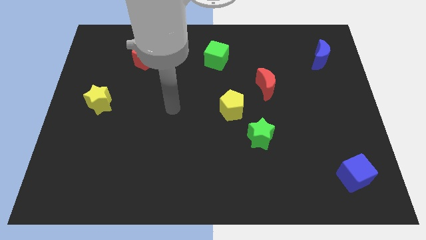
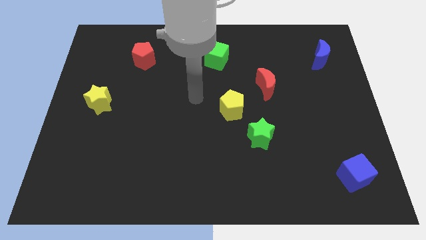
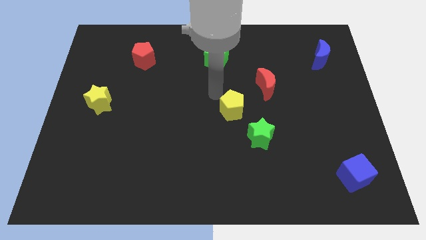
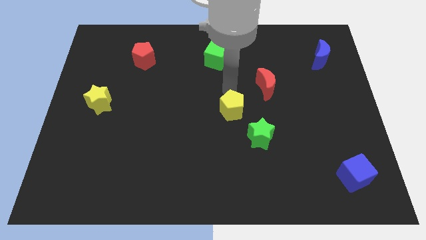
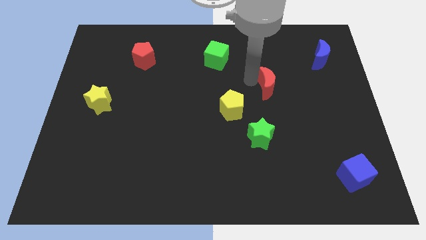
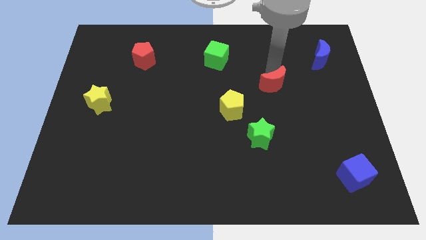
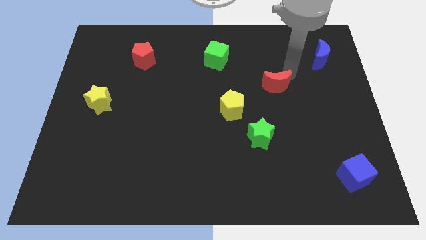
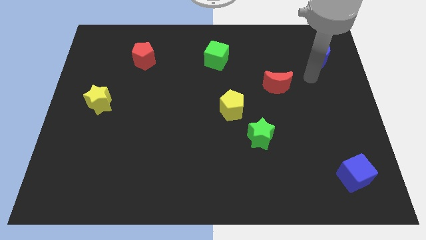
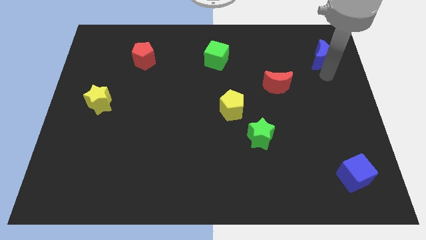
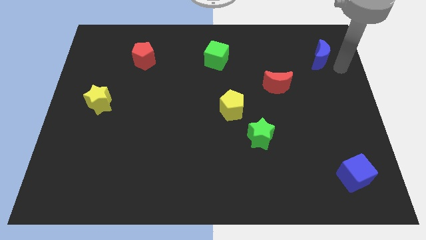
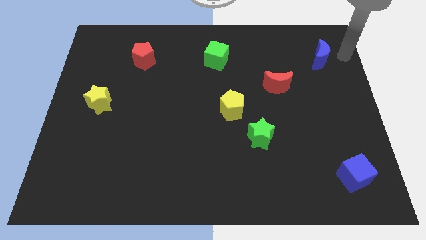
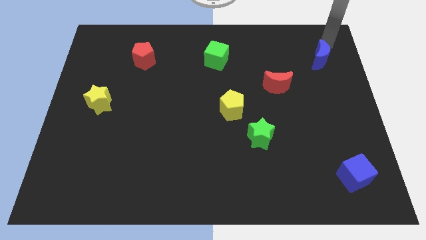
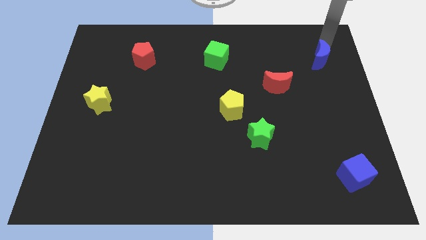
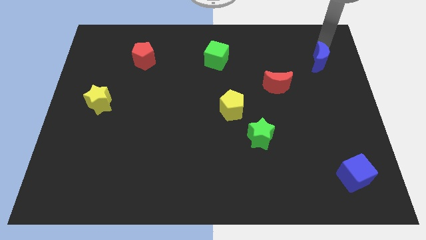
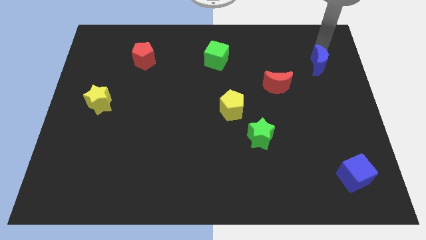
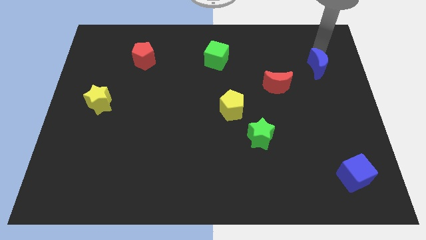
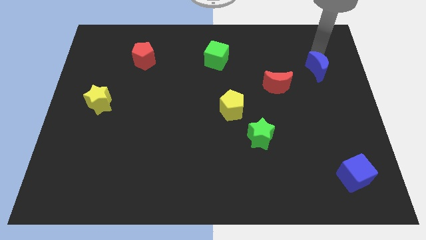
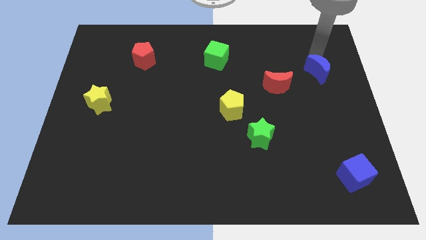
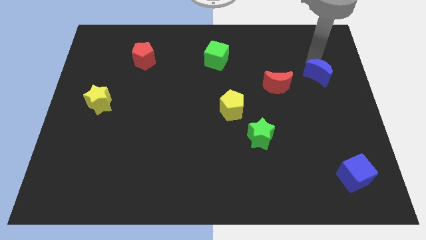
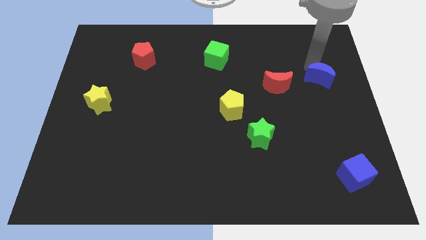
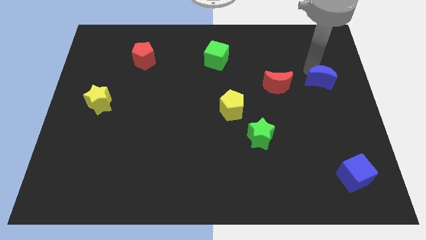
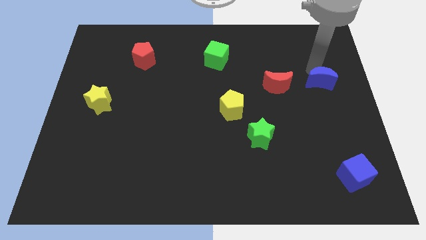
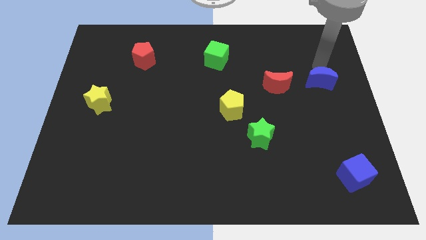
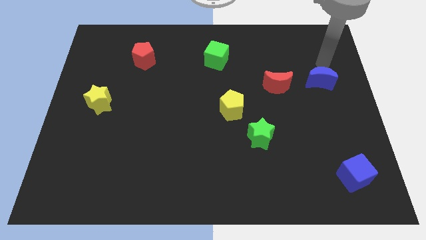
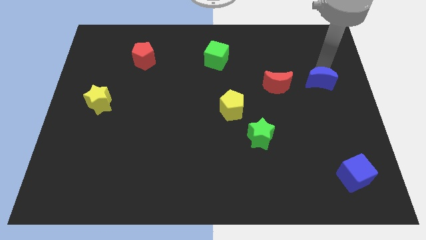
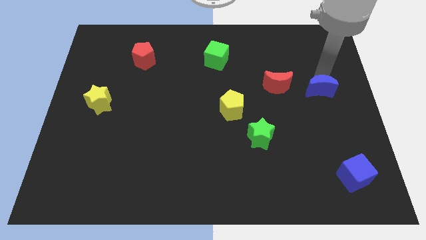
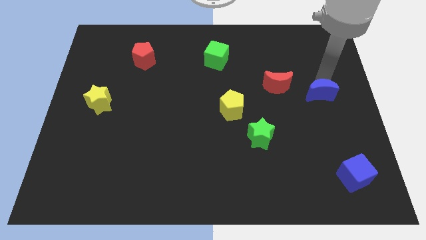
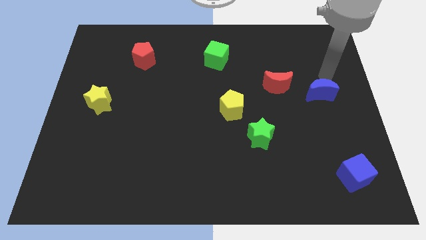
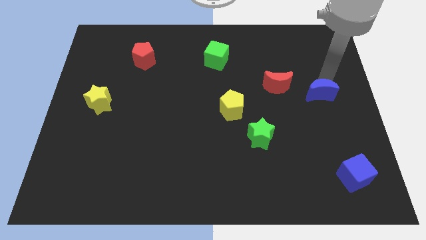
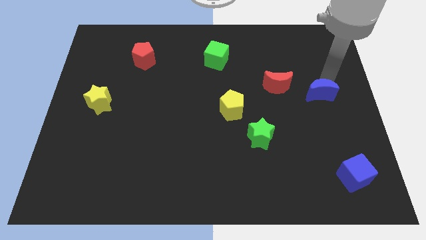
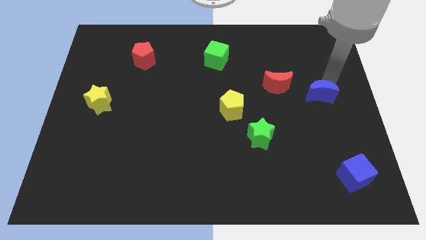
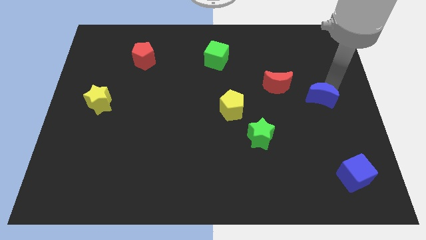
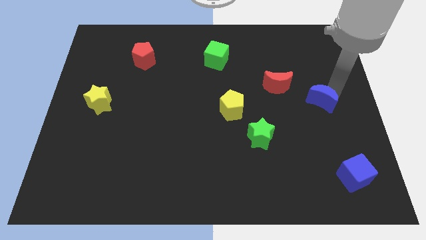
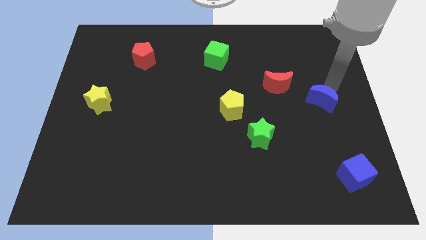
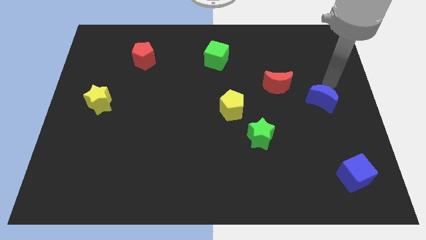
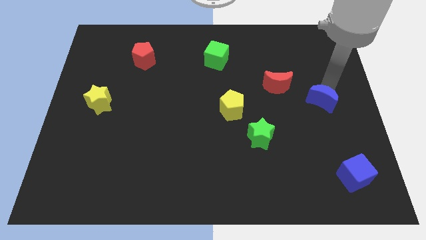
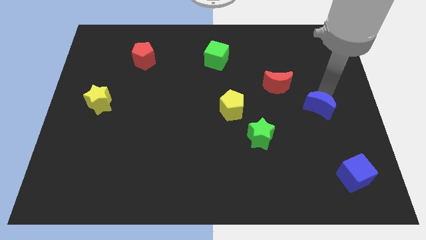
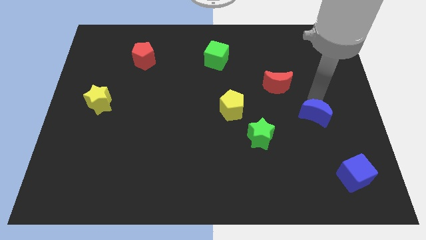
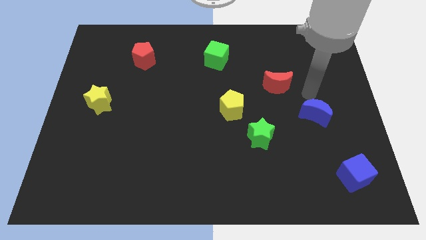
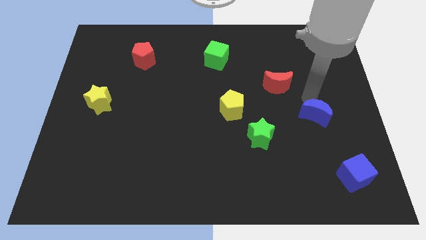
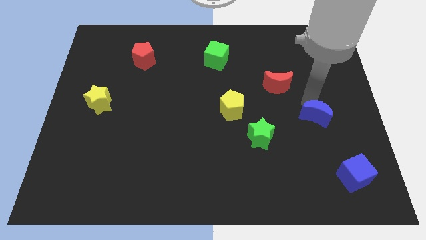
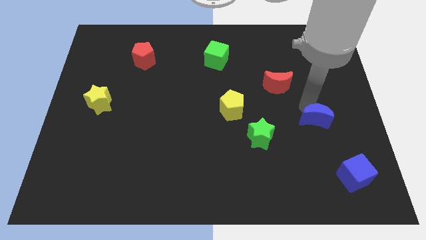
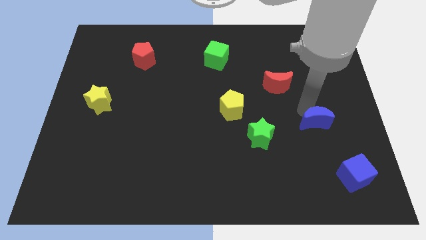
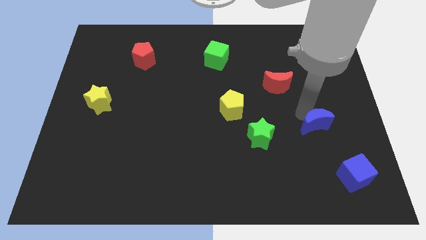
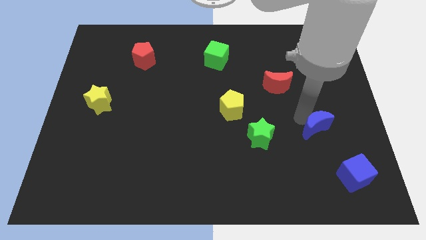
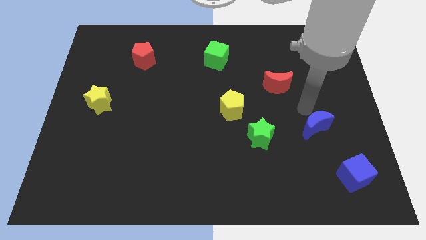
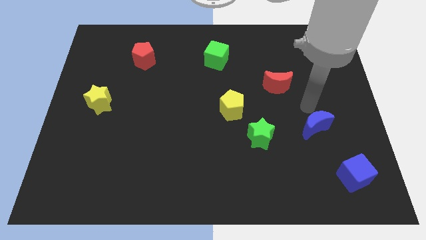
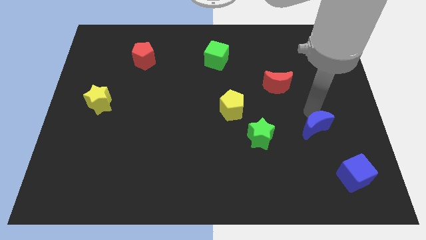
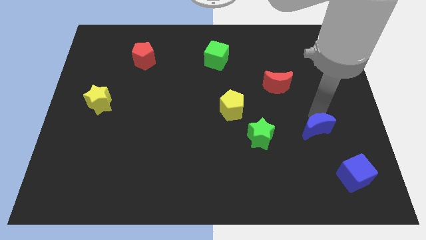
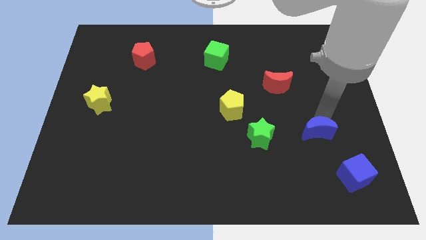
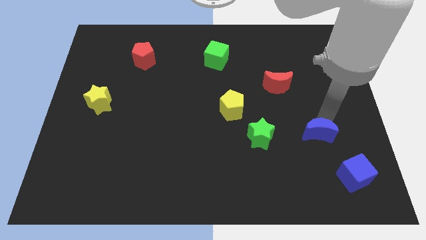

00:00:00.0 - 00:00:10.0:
push the blue moon to the top left of the blue cube

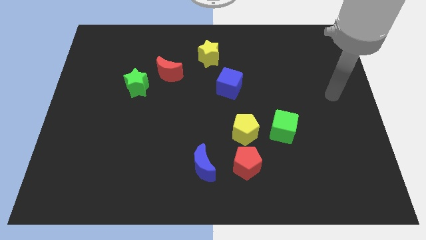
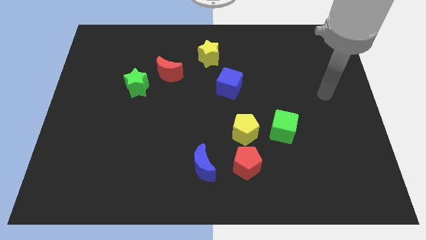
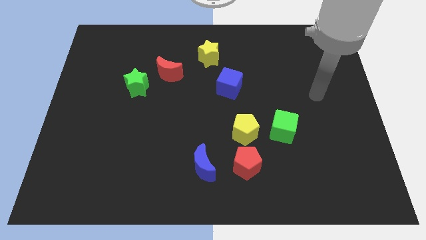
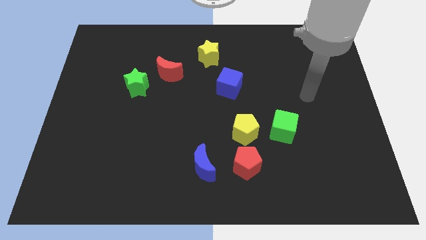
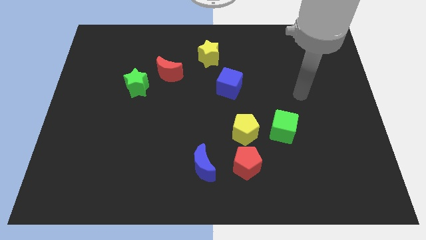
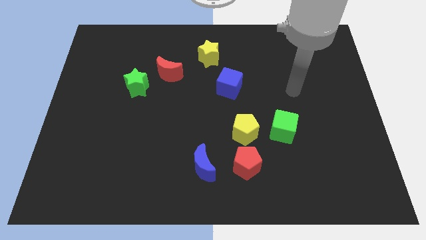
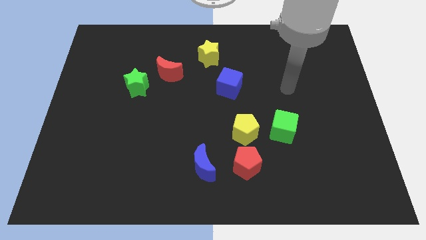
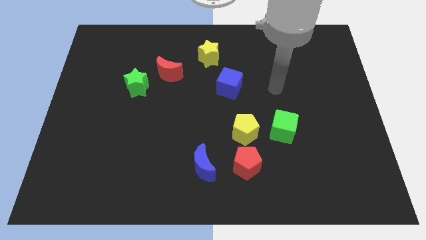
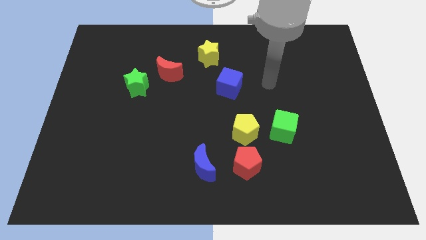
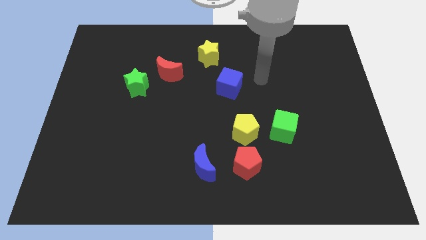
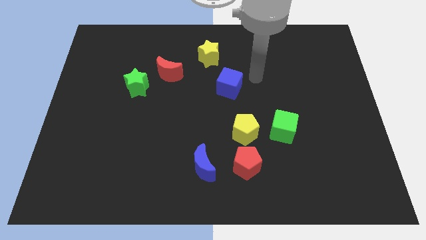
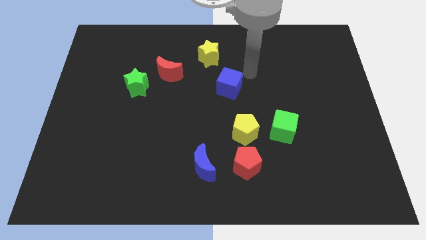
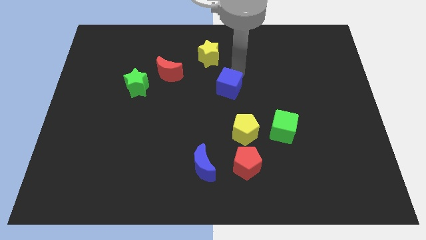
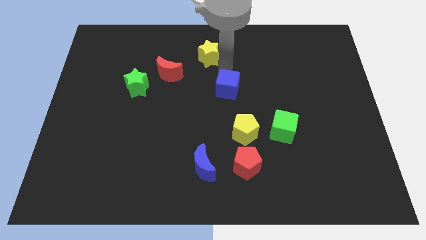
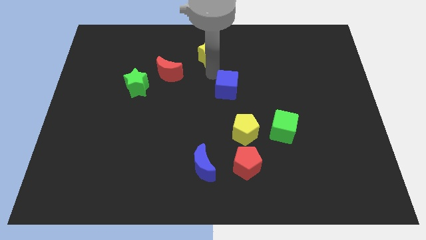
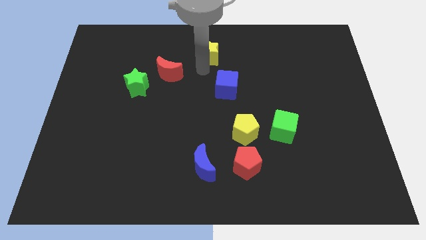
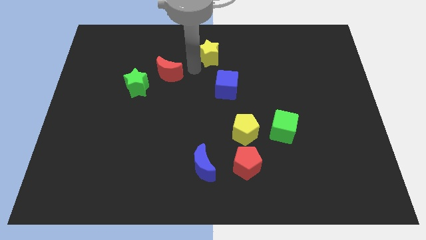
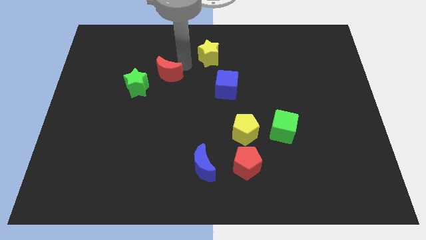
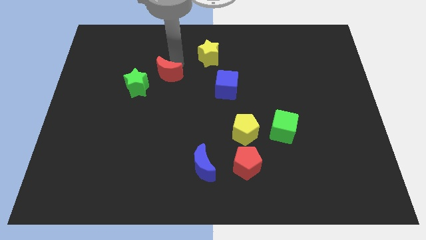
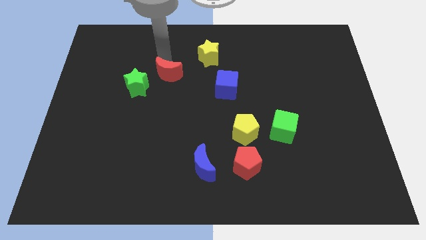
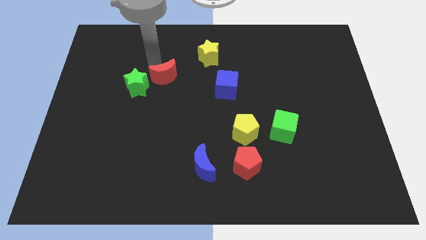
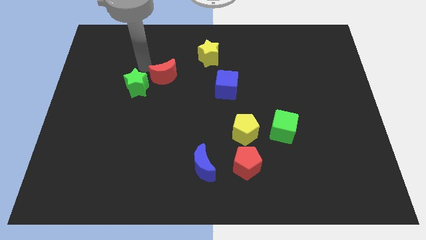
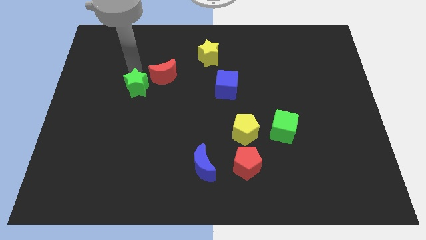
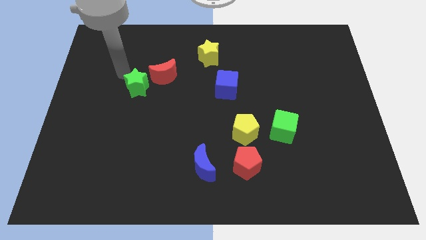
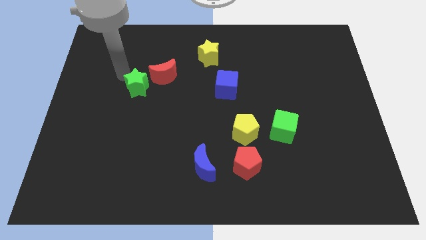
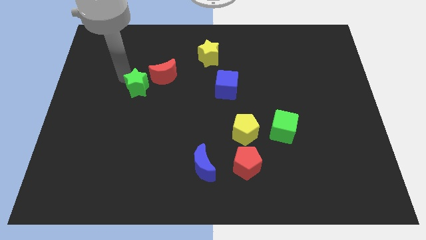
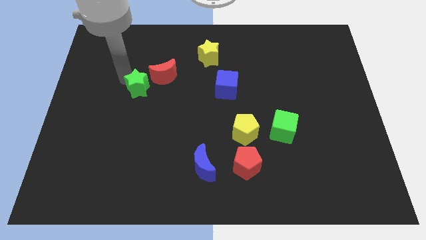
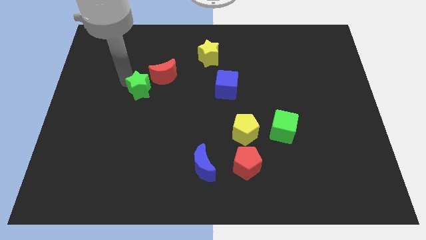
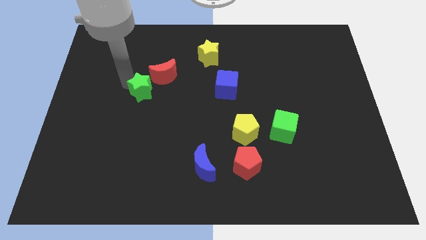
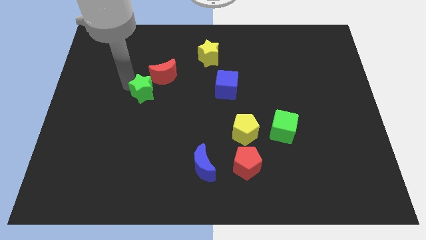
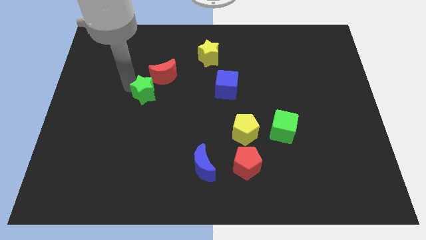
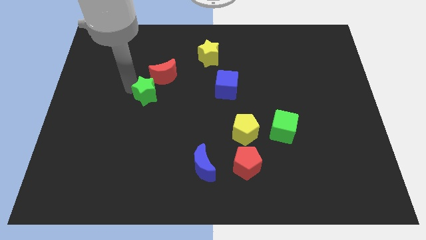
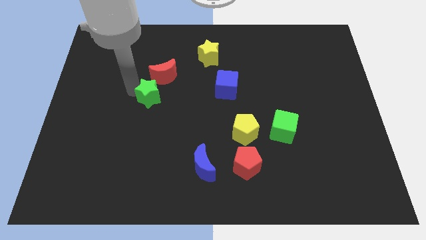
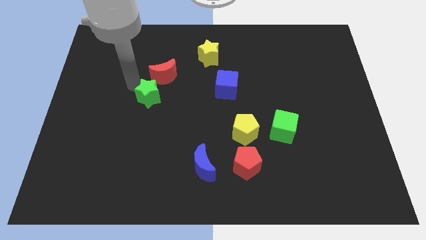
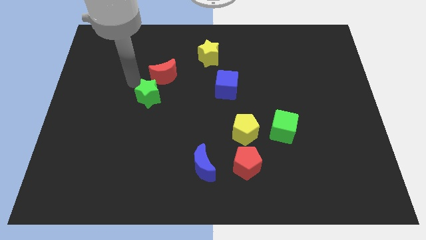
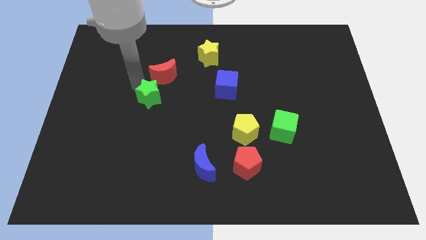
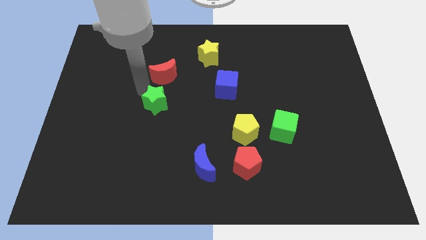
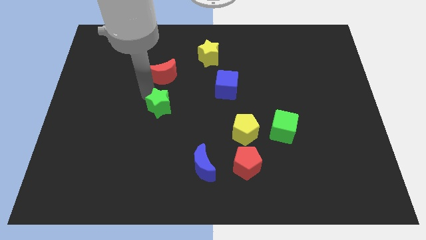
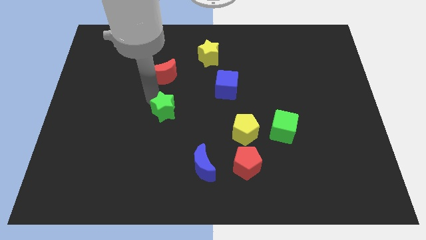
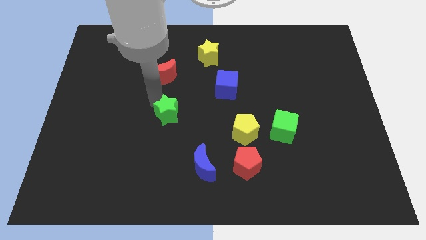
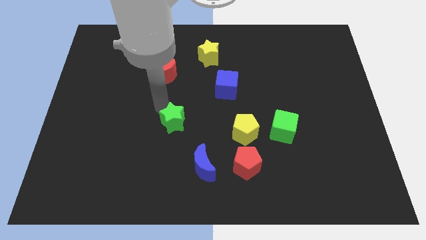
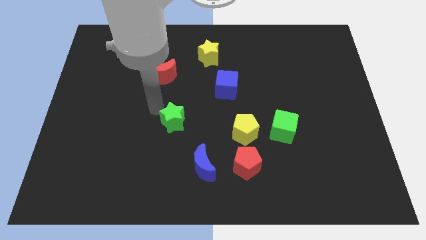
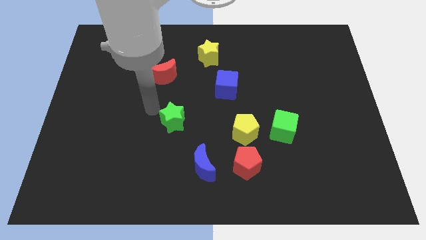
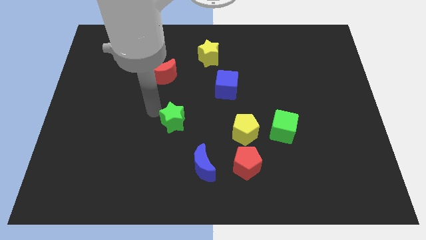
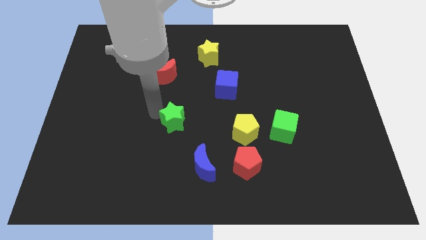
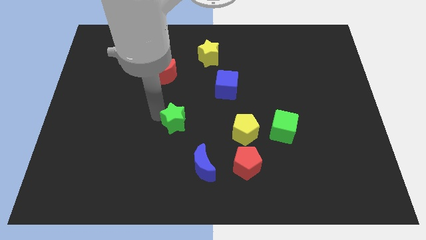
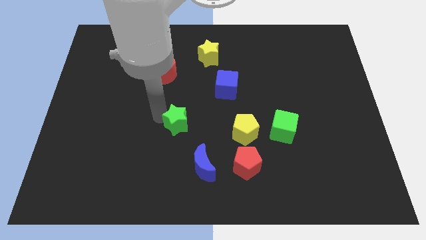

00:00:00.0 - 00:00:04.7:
move the green star just left of the yellow pentagon
